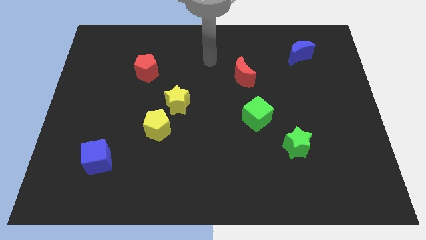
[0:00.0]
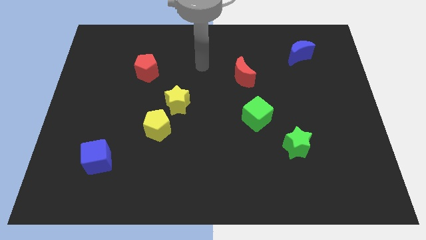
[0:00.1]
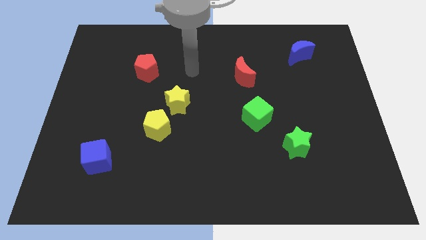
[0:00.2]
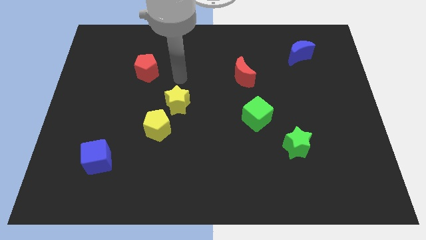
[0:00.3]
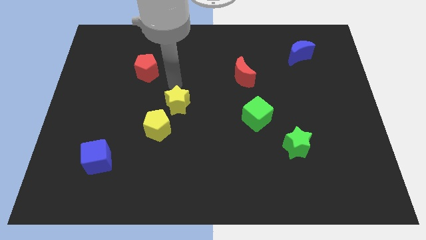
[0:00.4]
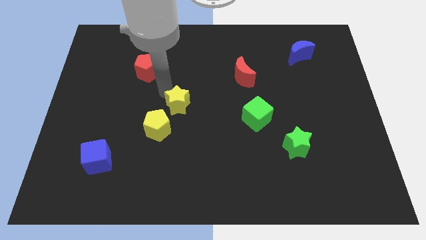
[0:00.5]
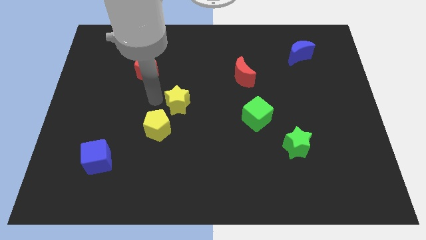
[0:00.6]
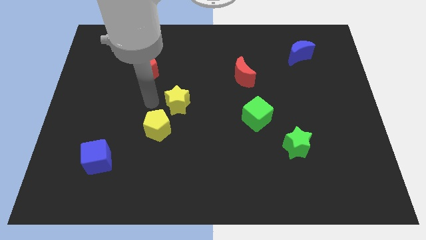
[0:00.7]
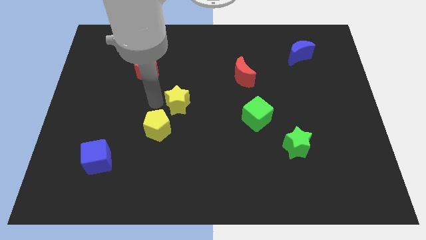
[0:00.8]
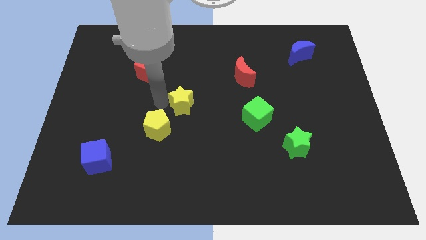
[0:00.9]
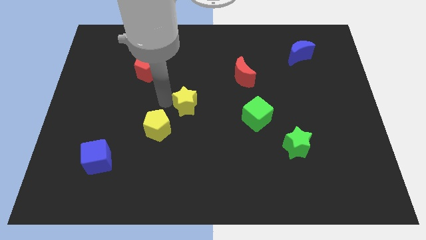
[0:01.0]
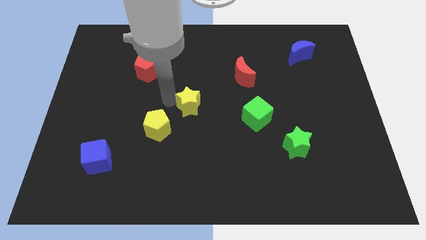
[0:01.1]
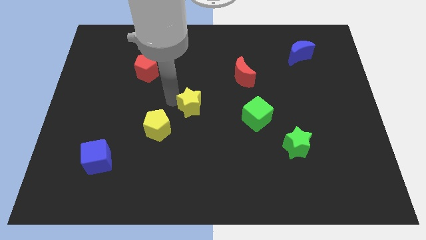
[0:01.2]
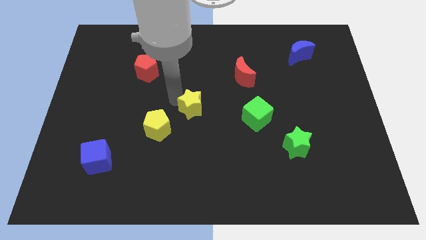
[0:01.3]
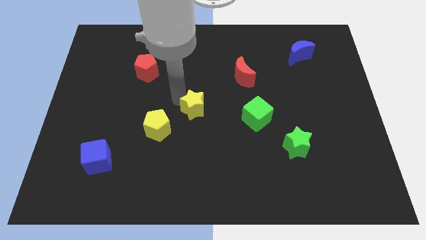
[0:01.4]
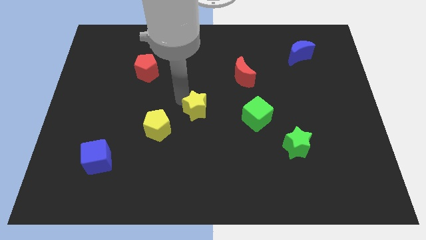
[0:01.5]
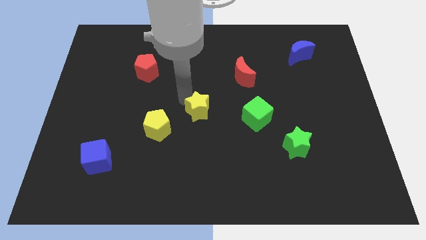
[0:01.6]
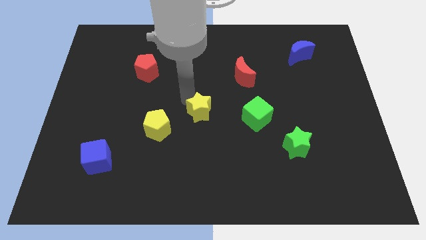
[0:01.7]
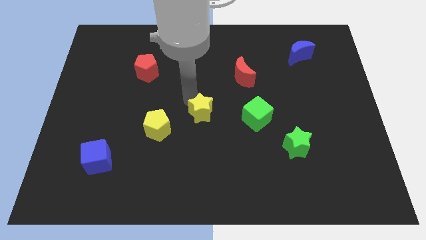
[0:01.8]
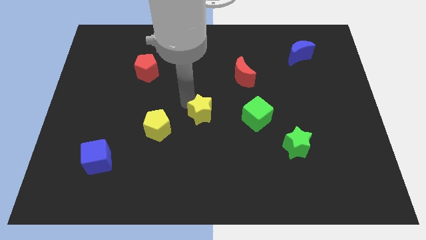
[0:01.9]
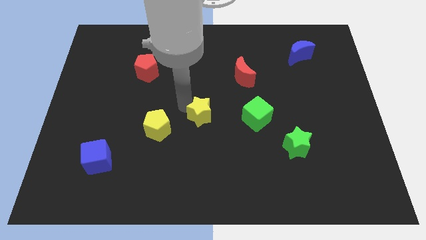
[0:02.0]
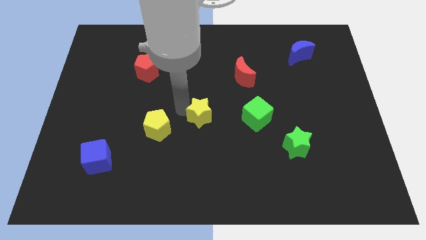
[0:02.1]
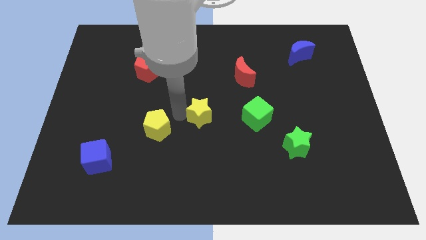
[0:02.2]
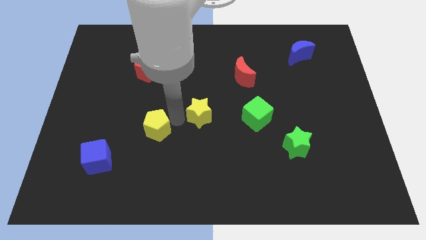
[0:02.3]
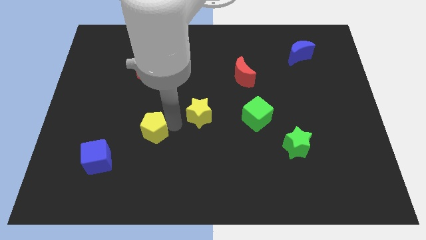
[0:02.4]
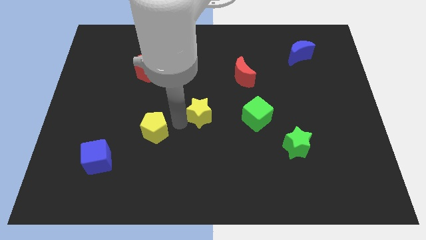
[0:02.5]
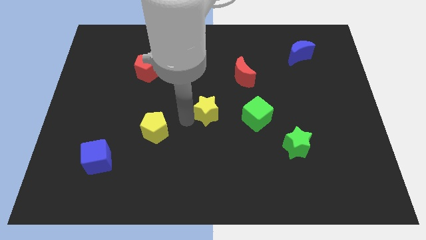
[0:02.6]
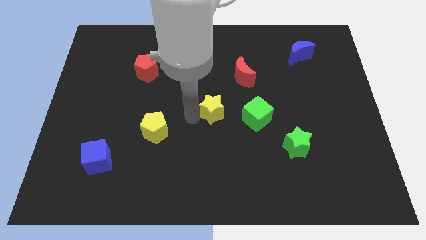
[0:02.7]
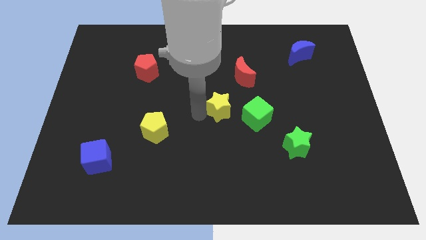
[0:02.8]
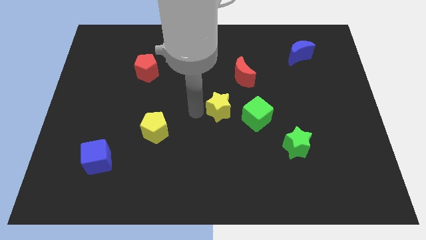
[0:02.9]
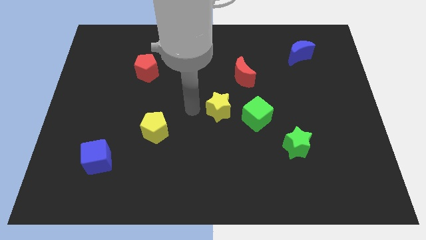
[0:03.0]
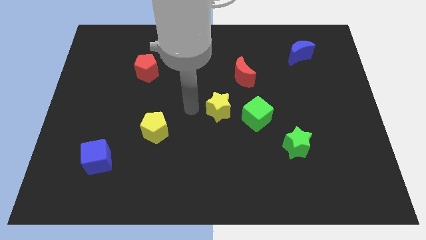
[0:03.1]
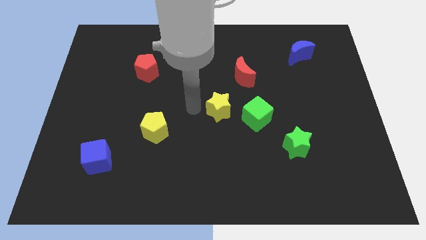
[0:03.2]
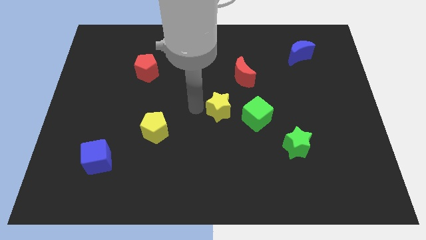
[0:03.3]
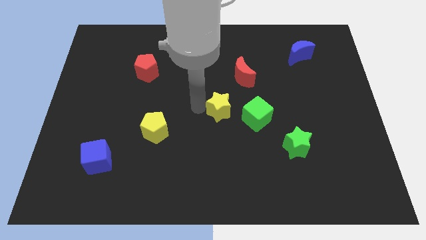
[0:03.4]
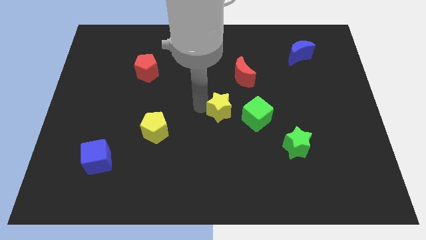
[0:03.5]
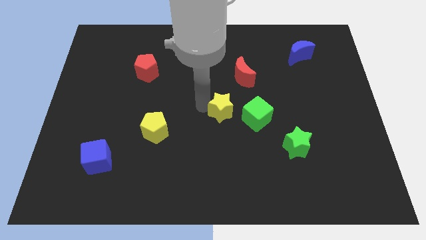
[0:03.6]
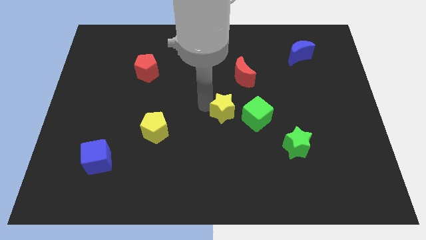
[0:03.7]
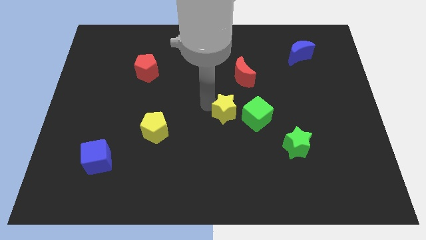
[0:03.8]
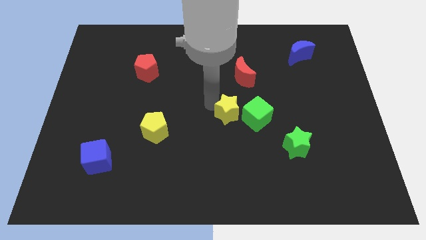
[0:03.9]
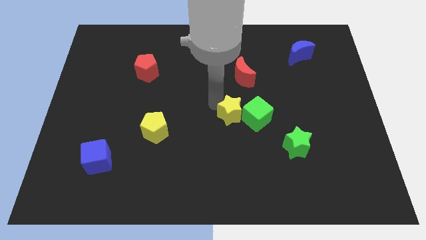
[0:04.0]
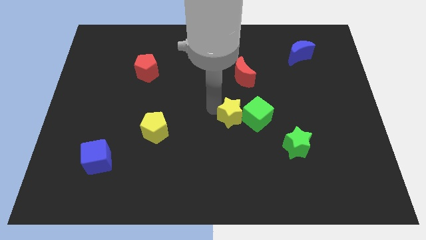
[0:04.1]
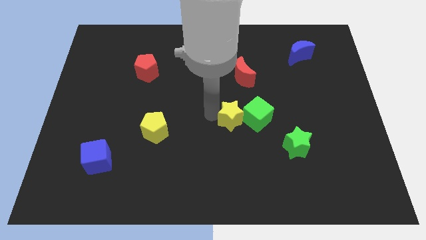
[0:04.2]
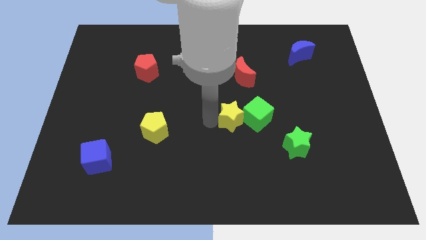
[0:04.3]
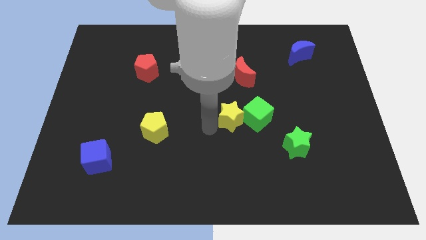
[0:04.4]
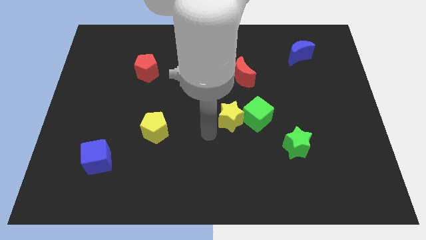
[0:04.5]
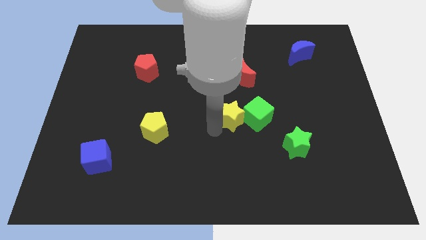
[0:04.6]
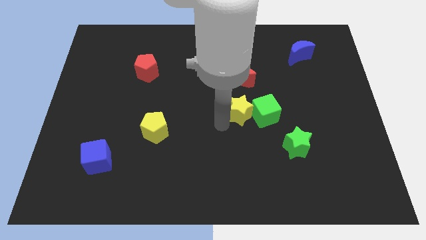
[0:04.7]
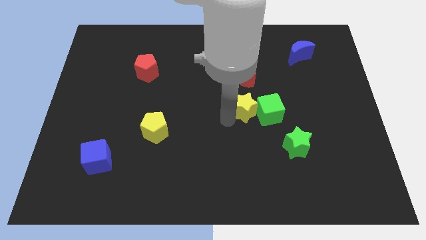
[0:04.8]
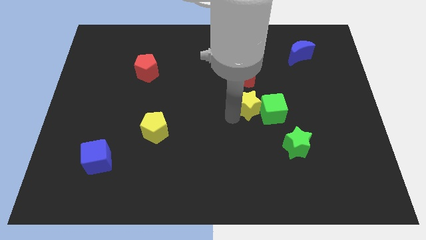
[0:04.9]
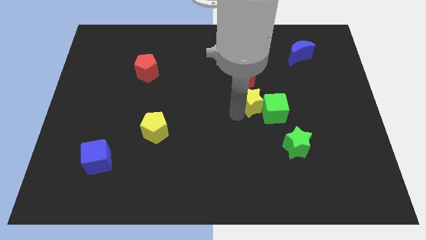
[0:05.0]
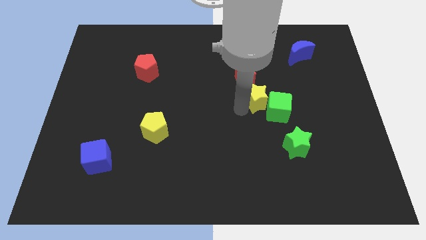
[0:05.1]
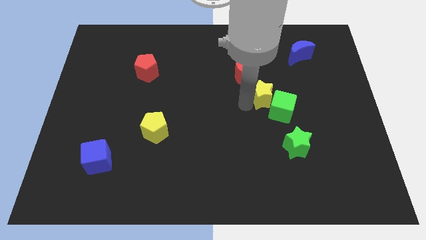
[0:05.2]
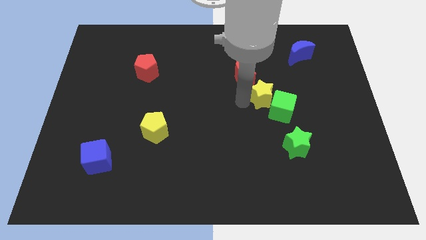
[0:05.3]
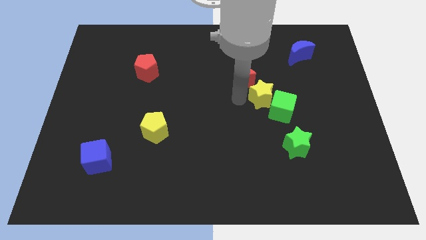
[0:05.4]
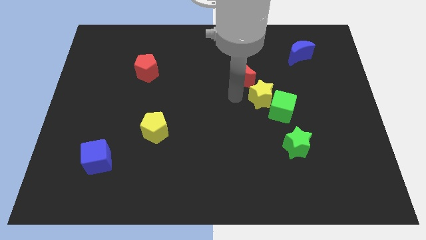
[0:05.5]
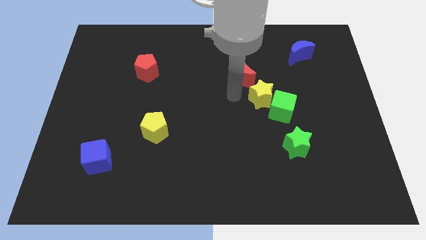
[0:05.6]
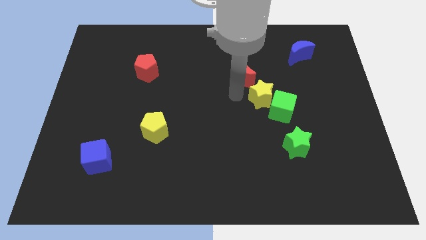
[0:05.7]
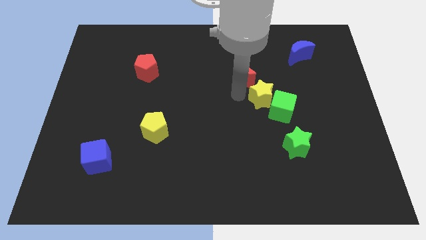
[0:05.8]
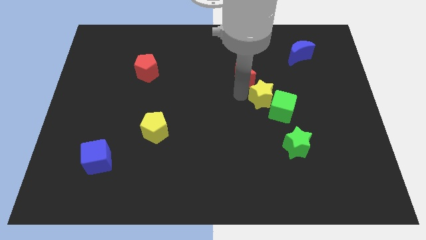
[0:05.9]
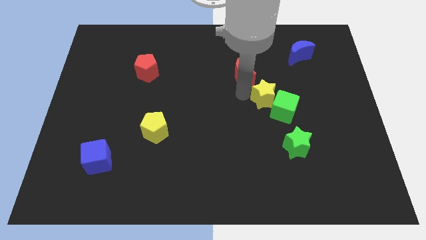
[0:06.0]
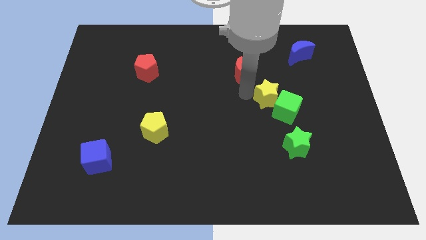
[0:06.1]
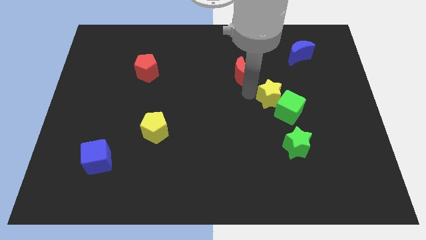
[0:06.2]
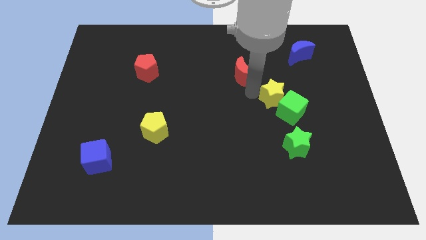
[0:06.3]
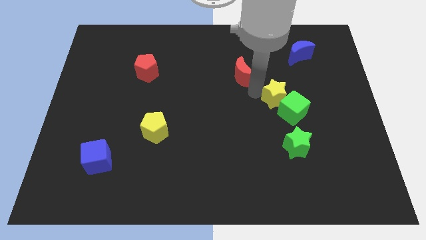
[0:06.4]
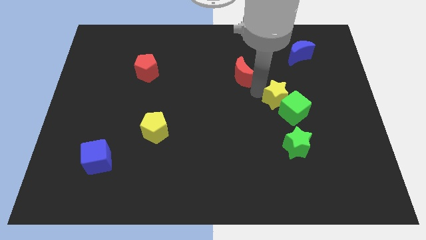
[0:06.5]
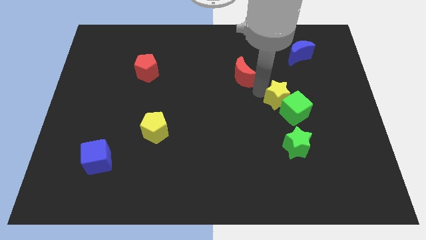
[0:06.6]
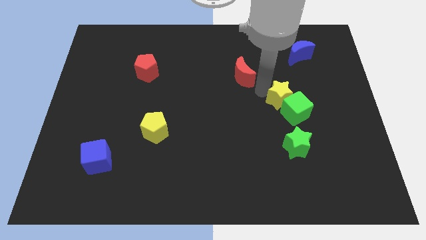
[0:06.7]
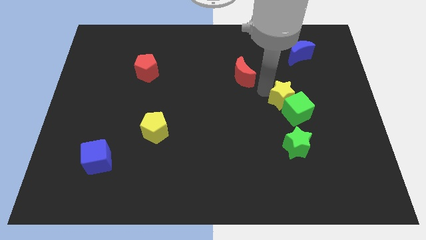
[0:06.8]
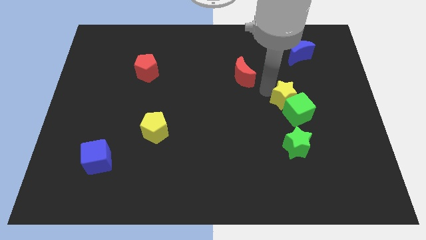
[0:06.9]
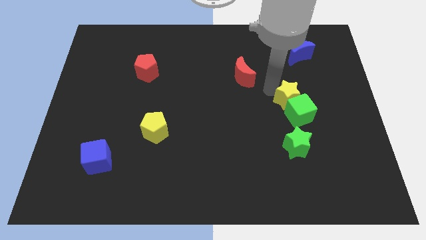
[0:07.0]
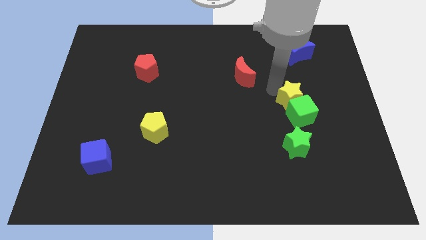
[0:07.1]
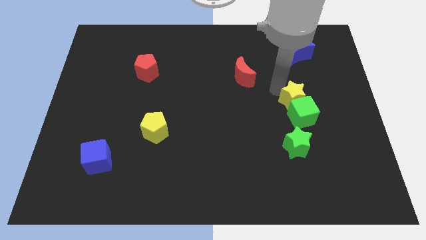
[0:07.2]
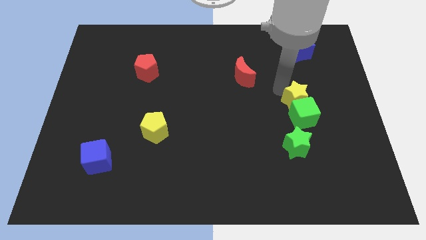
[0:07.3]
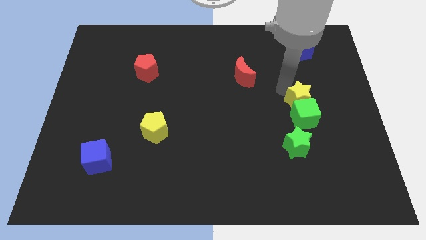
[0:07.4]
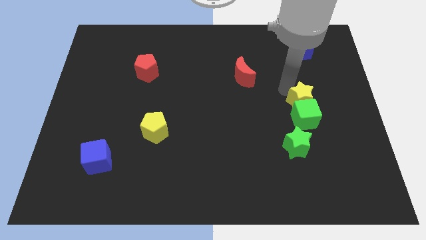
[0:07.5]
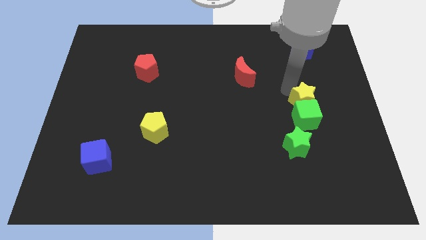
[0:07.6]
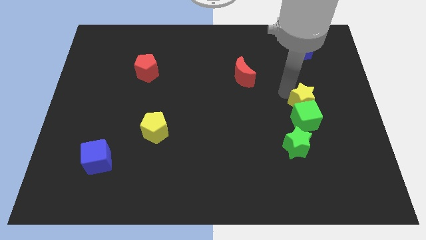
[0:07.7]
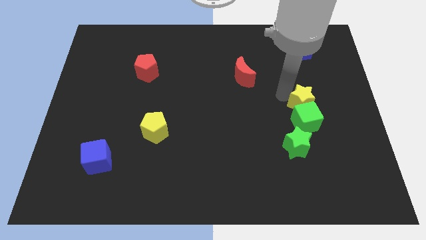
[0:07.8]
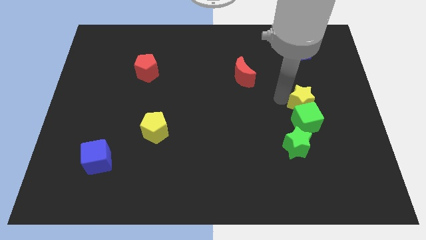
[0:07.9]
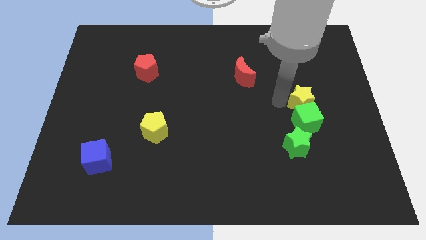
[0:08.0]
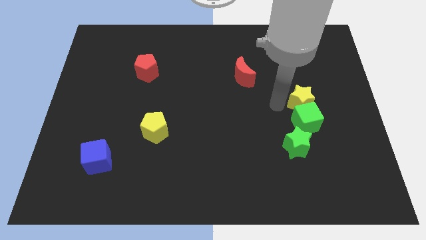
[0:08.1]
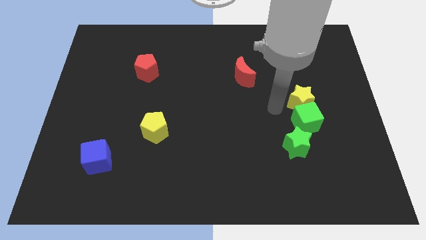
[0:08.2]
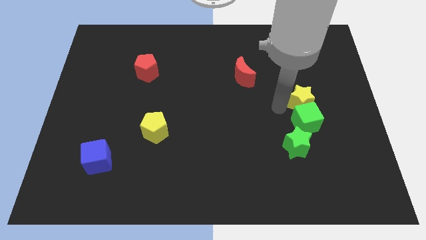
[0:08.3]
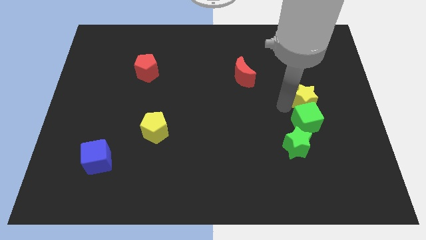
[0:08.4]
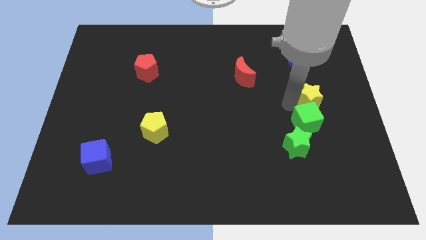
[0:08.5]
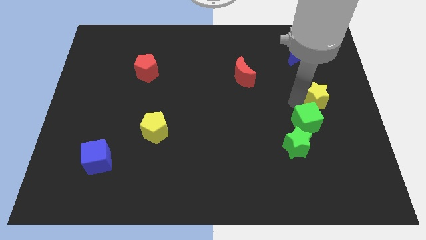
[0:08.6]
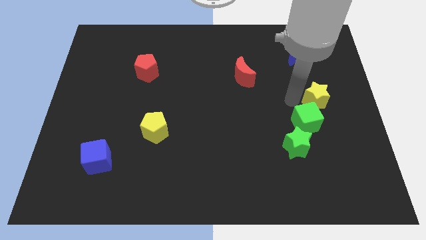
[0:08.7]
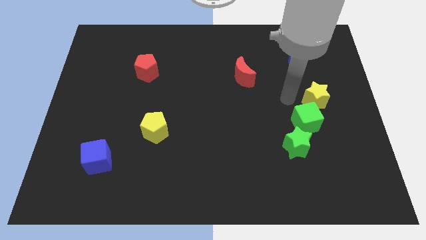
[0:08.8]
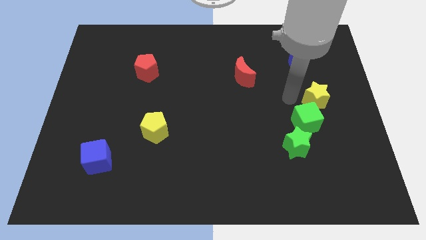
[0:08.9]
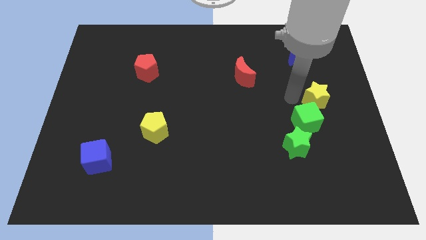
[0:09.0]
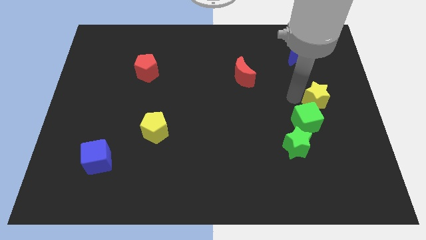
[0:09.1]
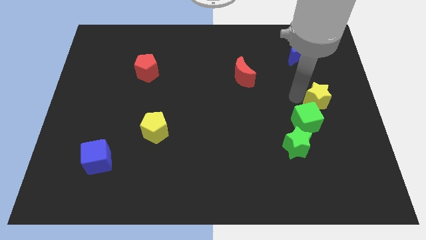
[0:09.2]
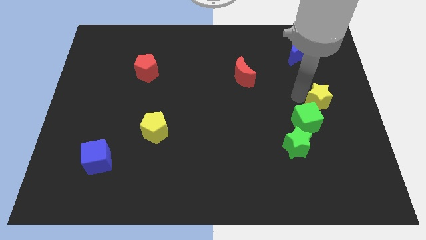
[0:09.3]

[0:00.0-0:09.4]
move the yellow star to the right side
